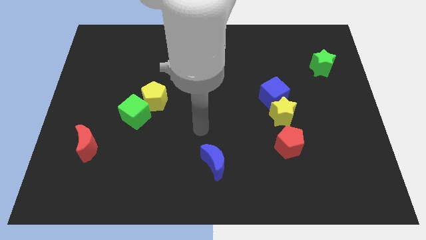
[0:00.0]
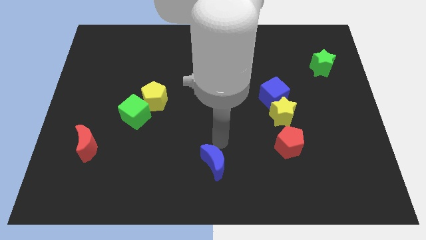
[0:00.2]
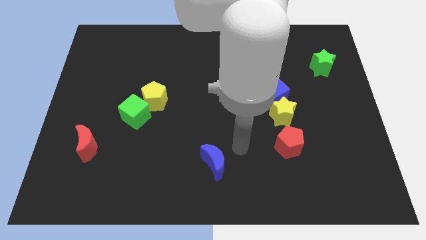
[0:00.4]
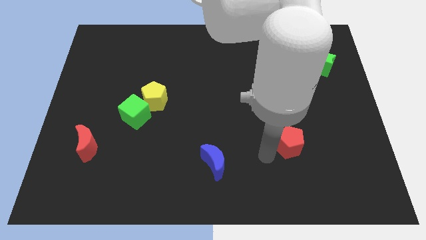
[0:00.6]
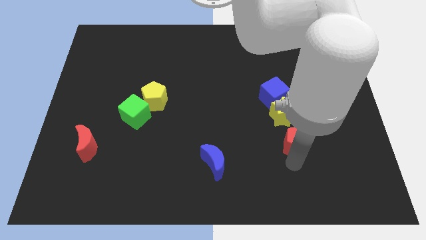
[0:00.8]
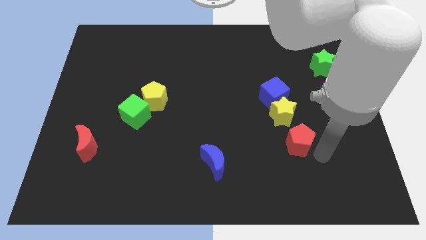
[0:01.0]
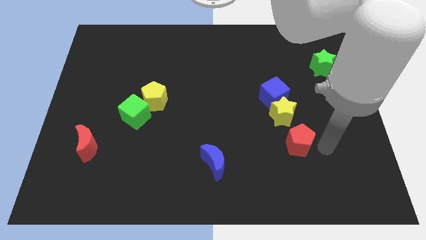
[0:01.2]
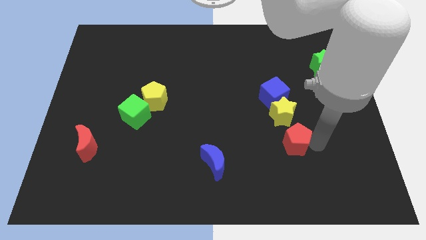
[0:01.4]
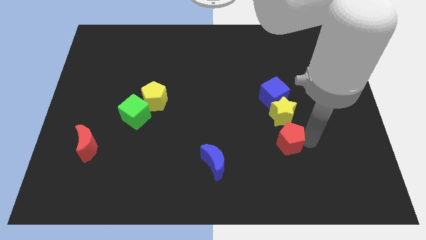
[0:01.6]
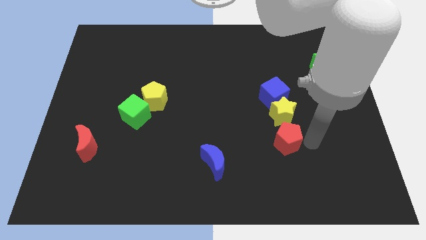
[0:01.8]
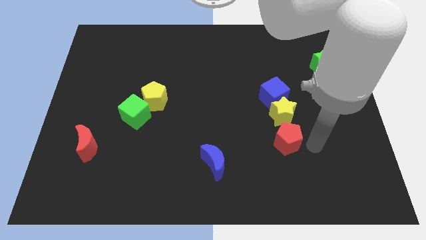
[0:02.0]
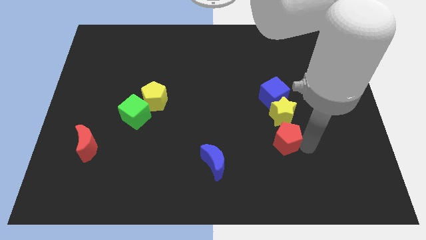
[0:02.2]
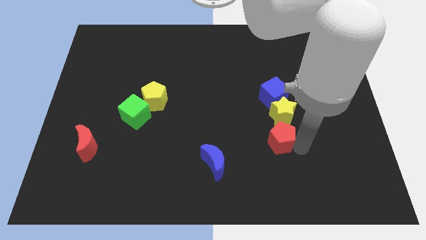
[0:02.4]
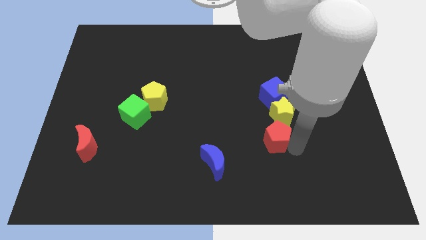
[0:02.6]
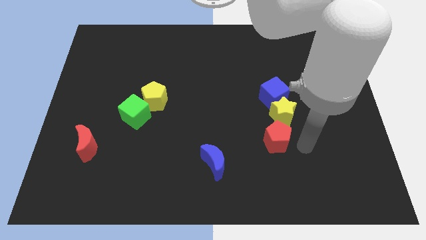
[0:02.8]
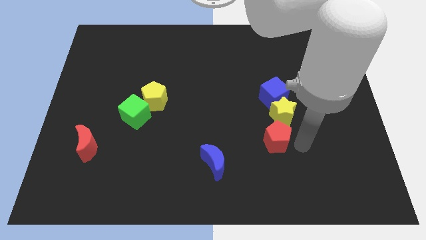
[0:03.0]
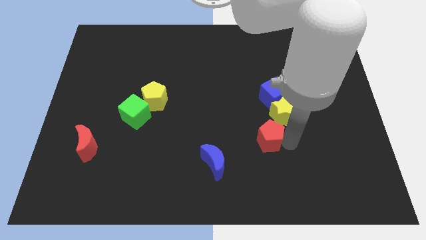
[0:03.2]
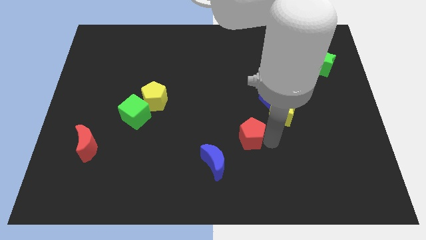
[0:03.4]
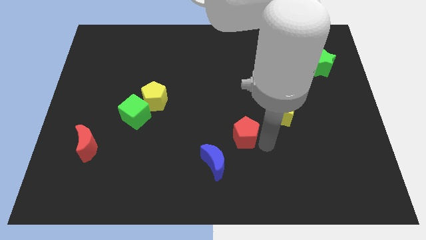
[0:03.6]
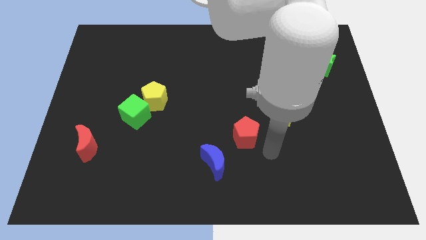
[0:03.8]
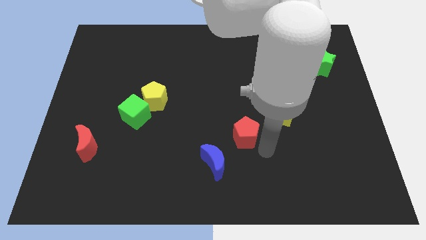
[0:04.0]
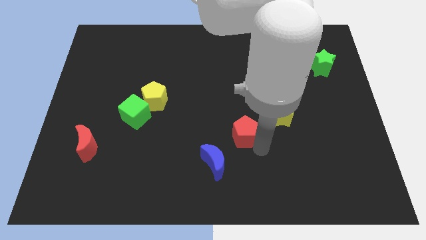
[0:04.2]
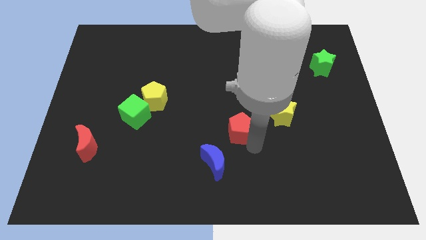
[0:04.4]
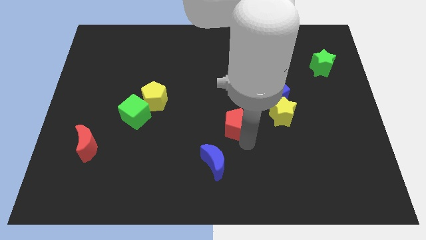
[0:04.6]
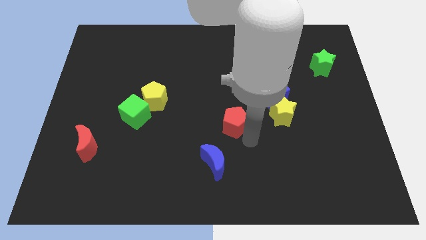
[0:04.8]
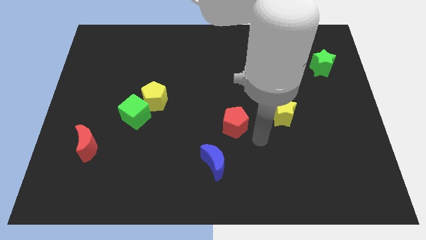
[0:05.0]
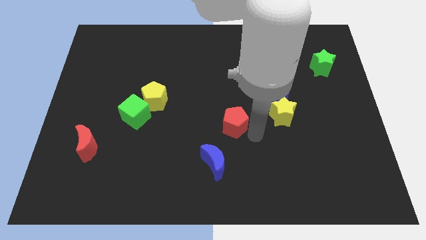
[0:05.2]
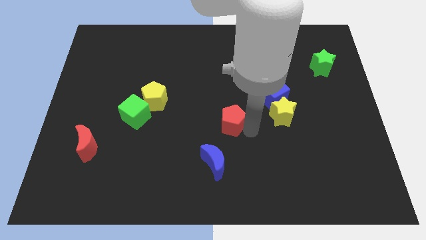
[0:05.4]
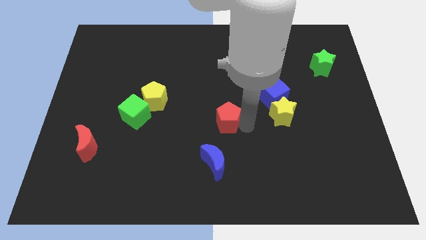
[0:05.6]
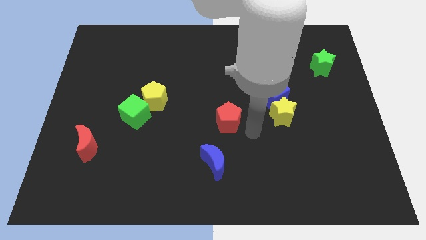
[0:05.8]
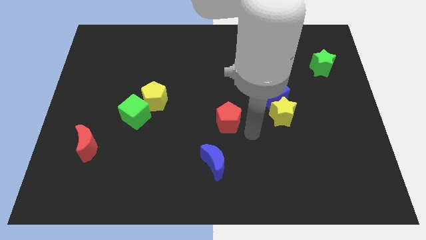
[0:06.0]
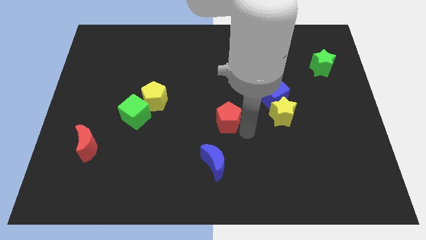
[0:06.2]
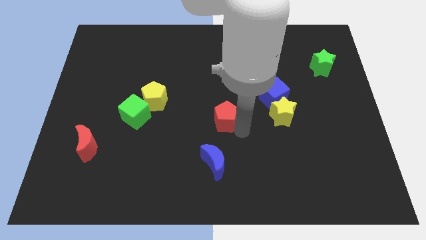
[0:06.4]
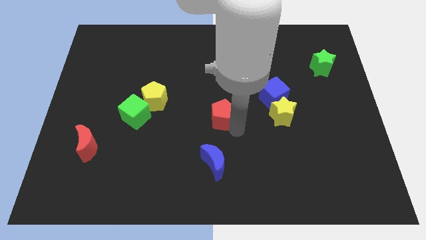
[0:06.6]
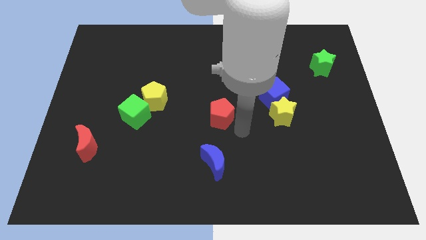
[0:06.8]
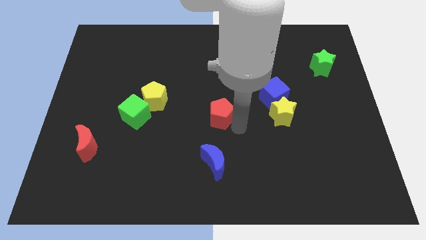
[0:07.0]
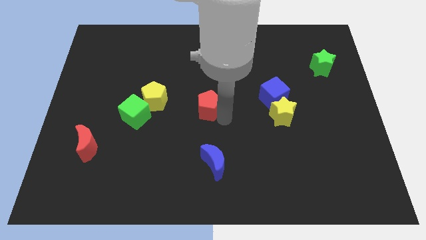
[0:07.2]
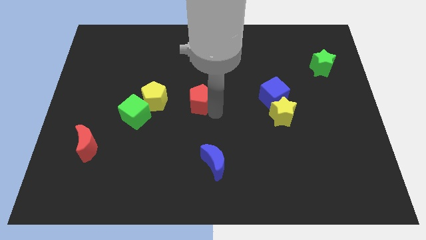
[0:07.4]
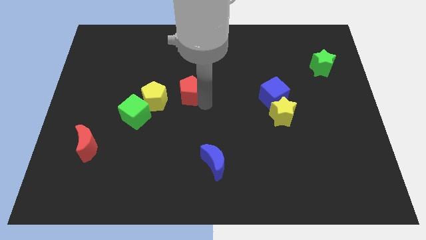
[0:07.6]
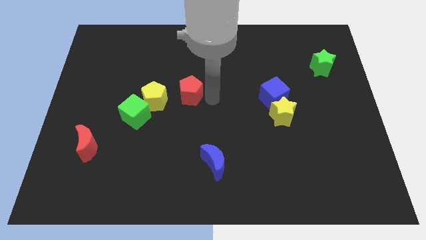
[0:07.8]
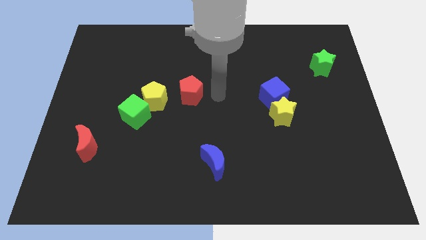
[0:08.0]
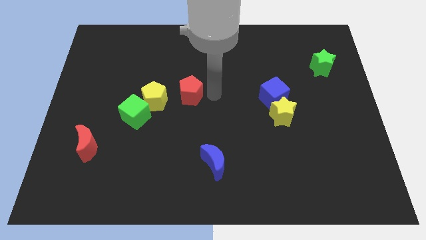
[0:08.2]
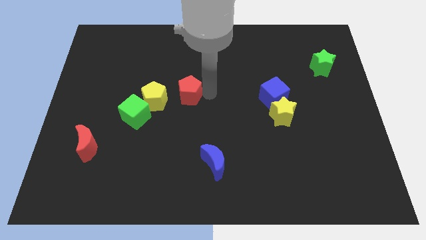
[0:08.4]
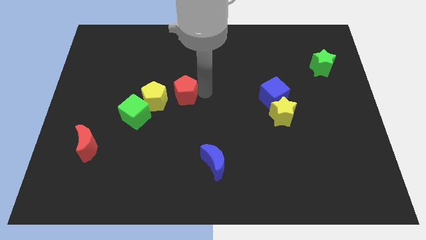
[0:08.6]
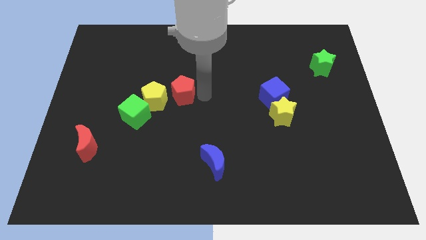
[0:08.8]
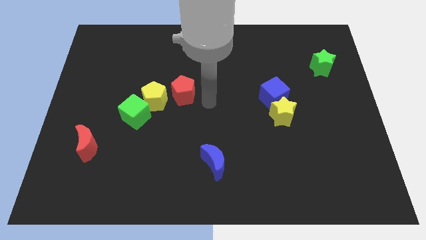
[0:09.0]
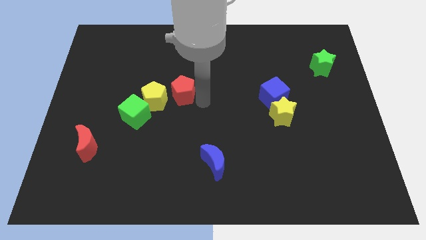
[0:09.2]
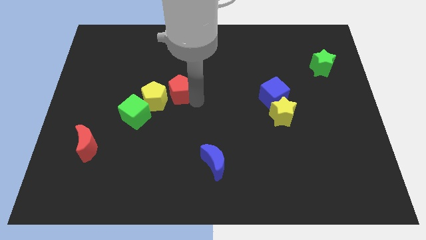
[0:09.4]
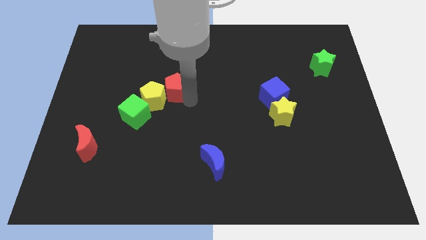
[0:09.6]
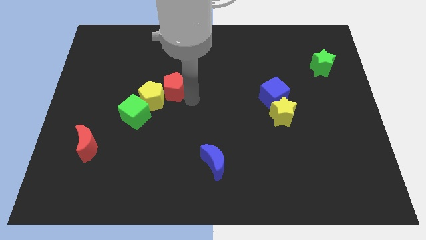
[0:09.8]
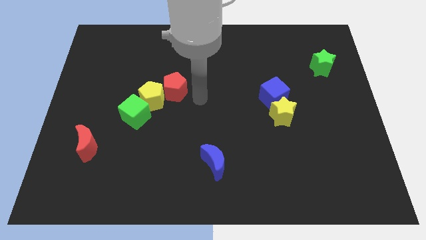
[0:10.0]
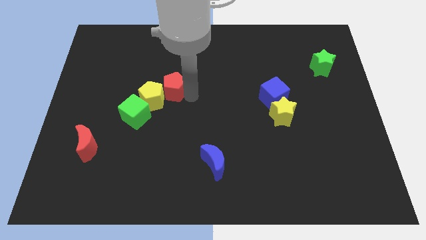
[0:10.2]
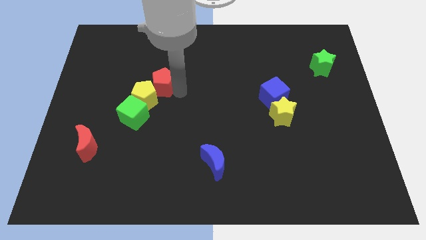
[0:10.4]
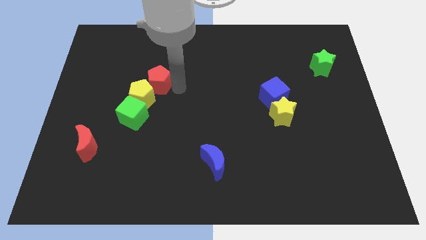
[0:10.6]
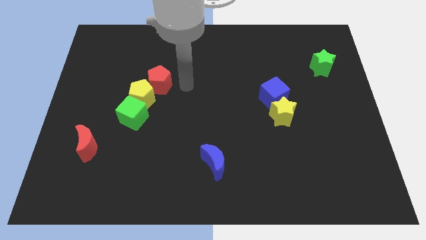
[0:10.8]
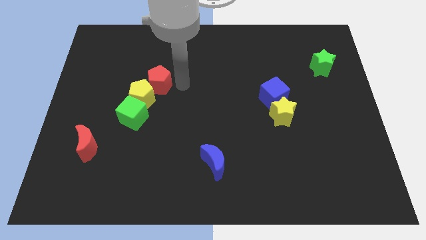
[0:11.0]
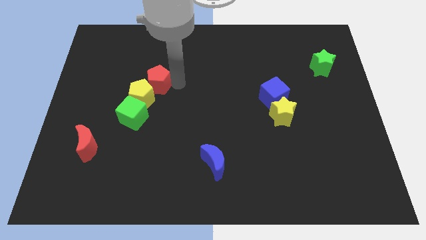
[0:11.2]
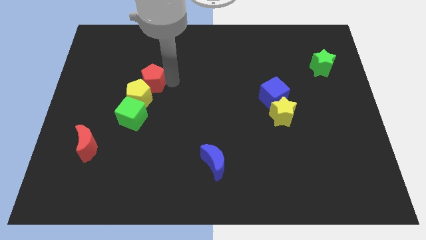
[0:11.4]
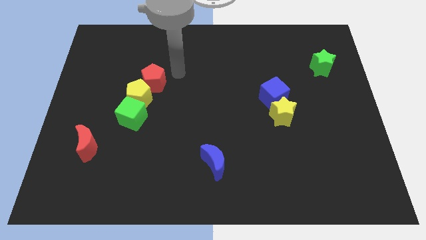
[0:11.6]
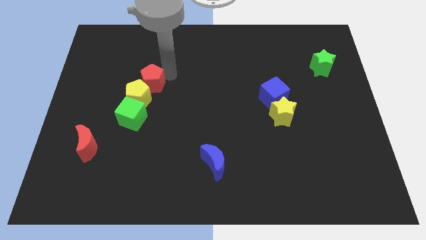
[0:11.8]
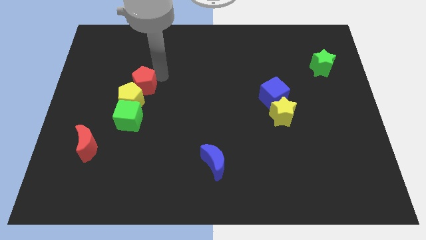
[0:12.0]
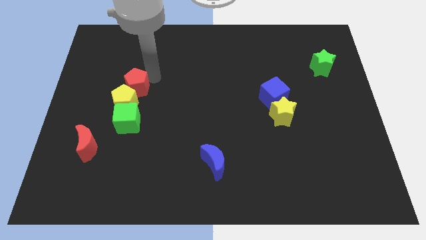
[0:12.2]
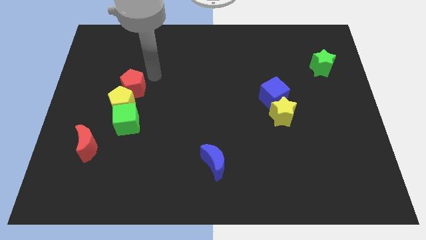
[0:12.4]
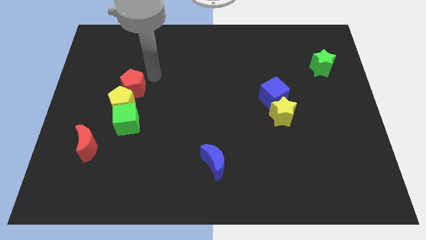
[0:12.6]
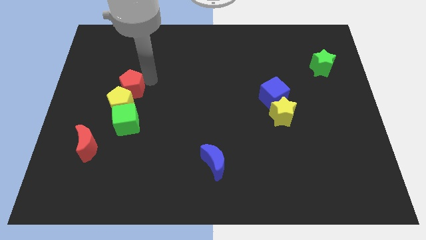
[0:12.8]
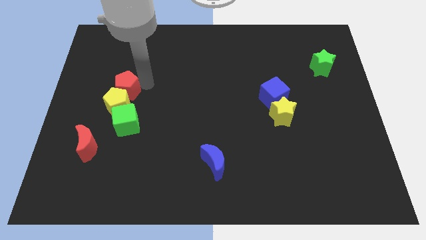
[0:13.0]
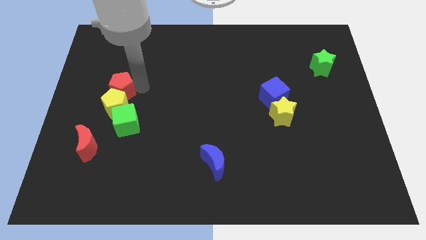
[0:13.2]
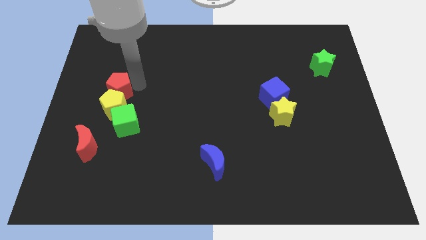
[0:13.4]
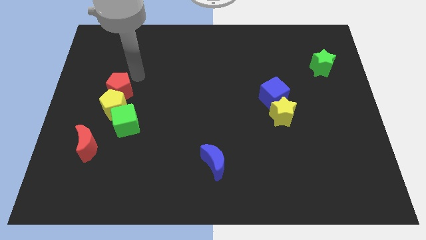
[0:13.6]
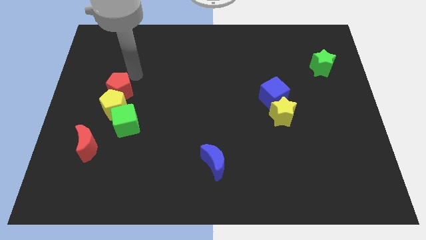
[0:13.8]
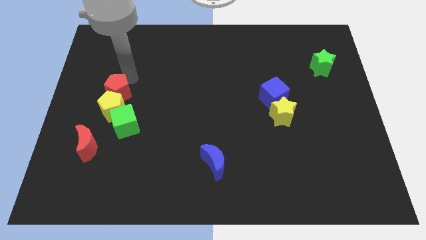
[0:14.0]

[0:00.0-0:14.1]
slide the red pentagon to the top left side of the green cube
